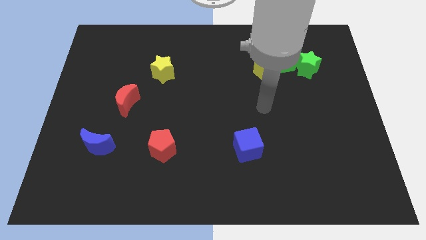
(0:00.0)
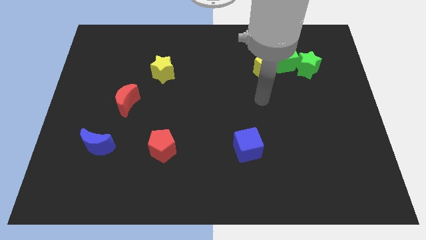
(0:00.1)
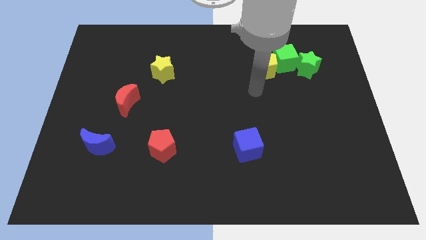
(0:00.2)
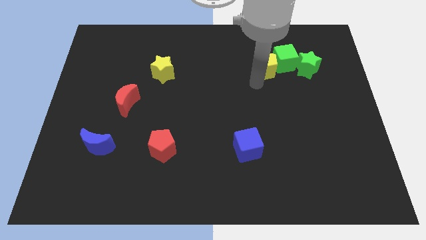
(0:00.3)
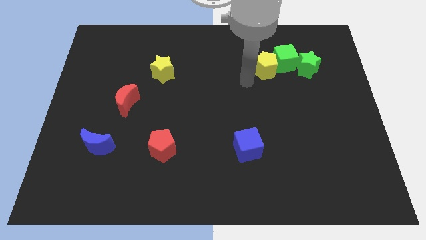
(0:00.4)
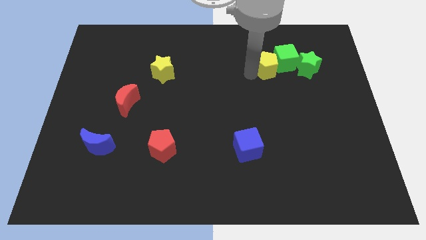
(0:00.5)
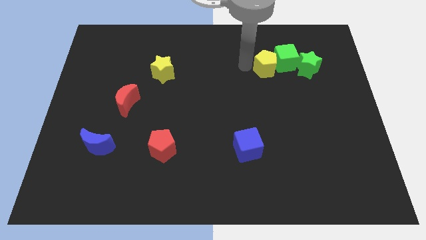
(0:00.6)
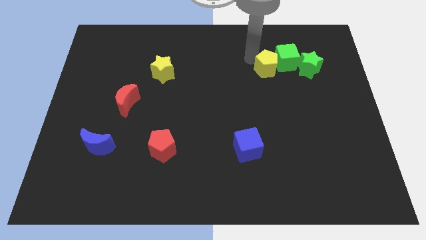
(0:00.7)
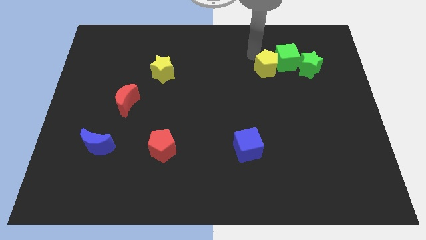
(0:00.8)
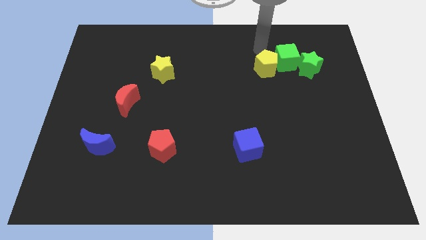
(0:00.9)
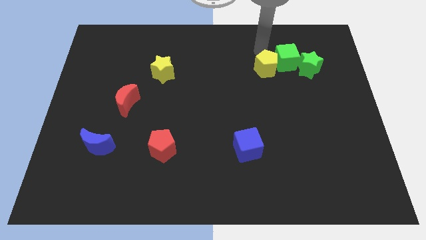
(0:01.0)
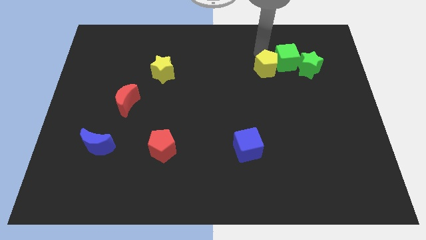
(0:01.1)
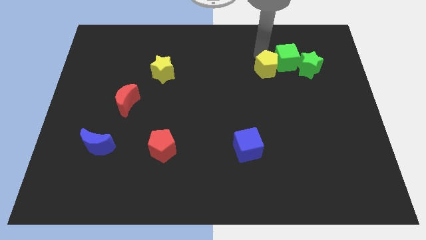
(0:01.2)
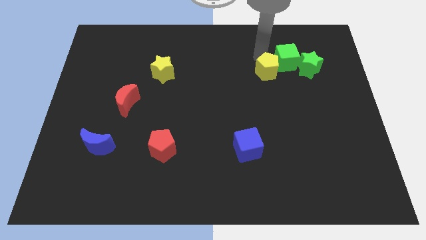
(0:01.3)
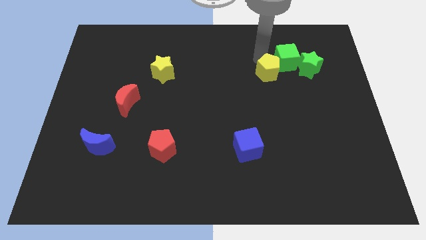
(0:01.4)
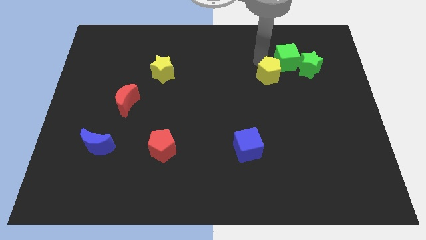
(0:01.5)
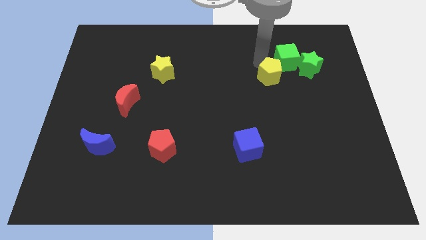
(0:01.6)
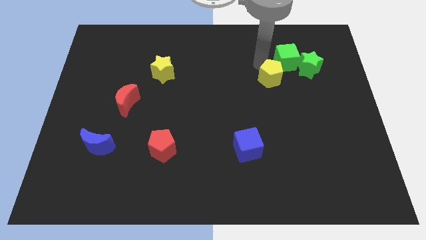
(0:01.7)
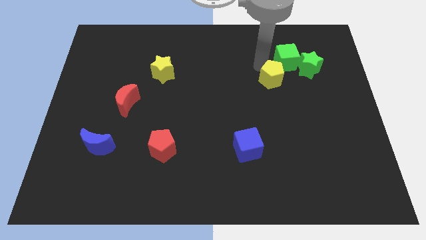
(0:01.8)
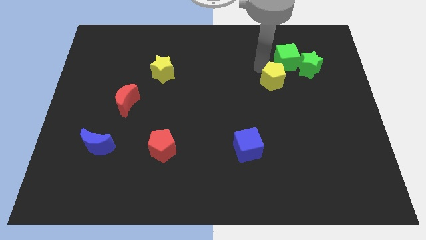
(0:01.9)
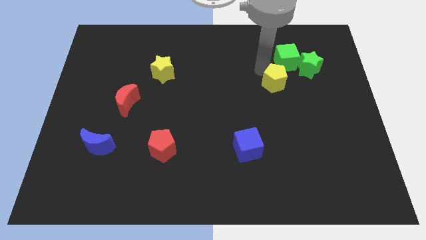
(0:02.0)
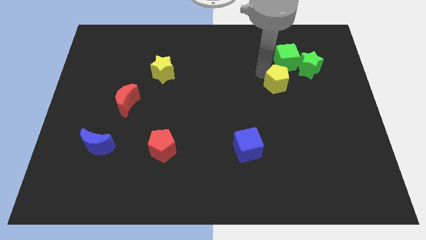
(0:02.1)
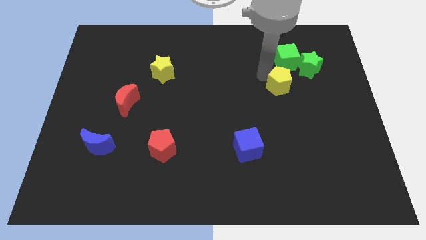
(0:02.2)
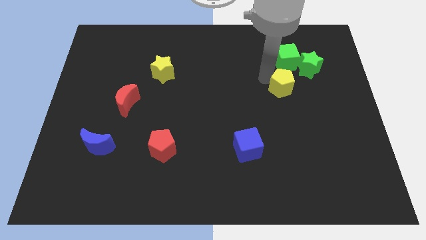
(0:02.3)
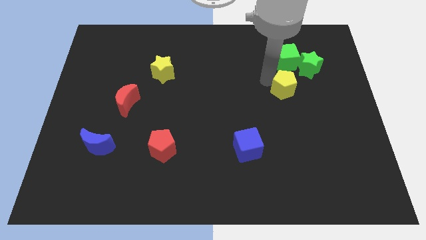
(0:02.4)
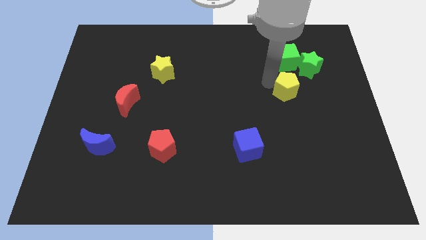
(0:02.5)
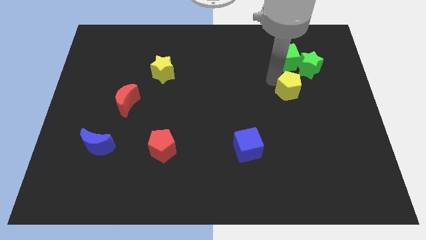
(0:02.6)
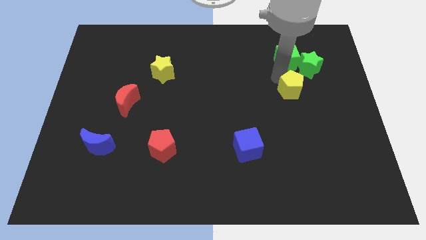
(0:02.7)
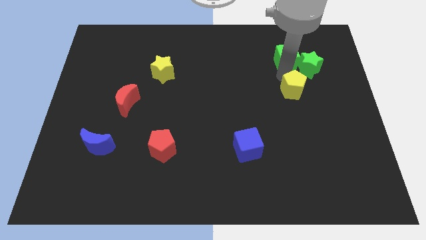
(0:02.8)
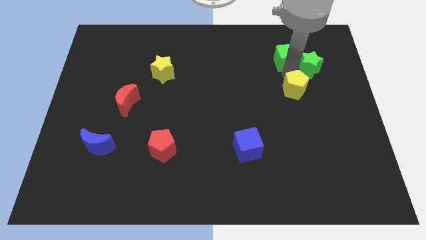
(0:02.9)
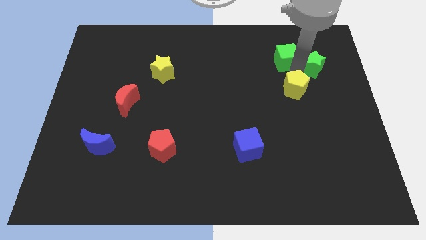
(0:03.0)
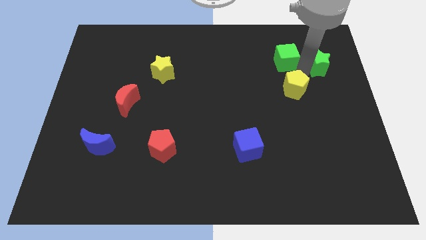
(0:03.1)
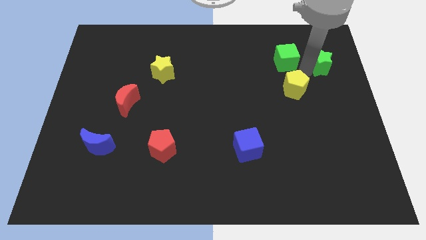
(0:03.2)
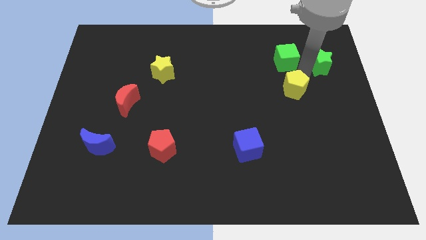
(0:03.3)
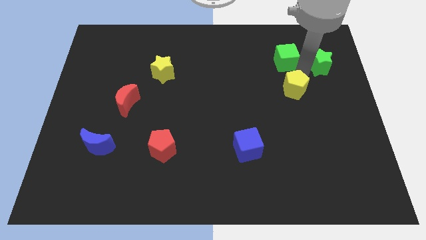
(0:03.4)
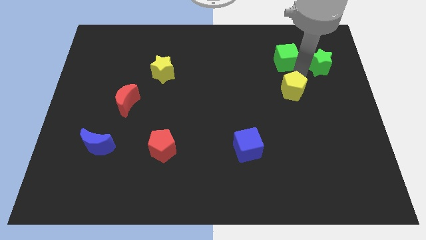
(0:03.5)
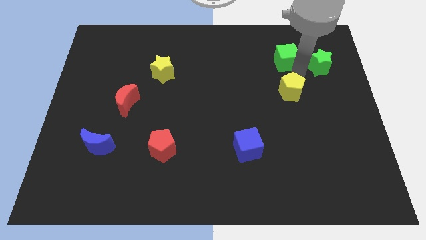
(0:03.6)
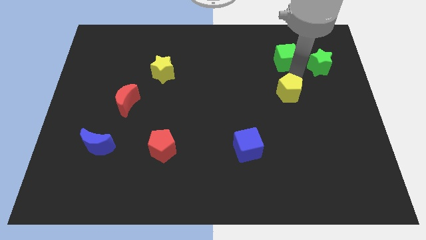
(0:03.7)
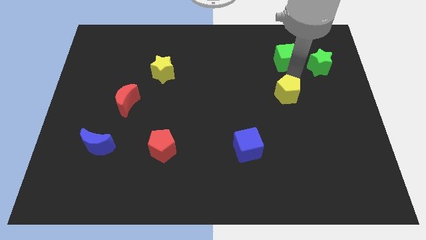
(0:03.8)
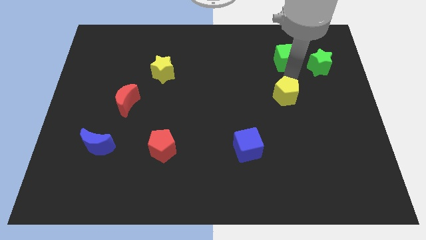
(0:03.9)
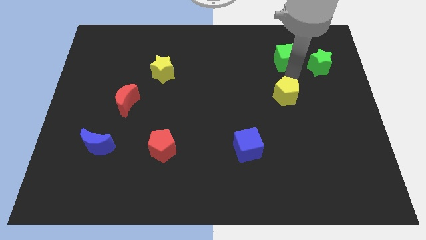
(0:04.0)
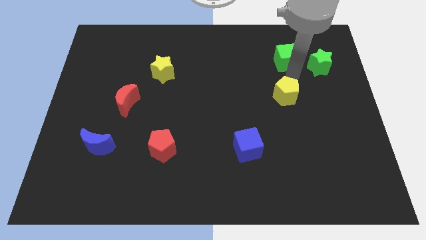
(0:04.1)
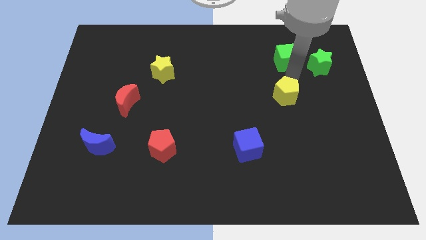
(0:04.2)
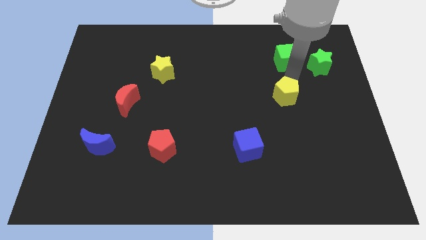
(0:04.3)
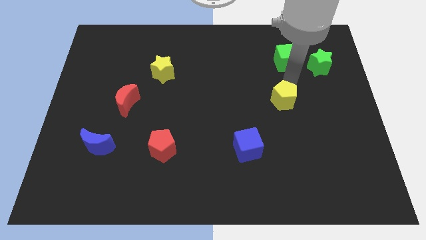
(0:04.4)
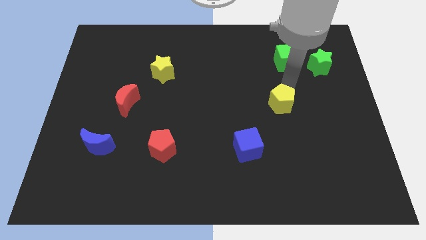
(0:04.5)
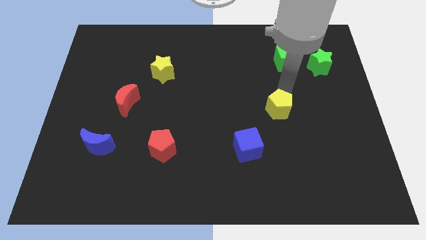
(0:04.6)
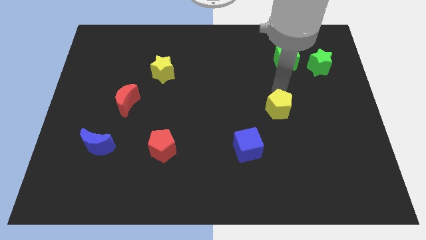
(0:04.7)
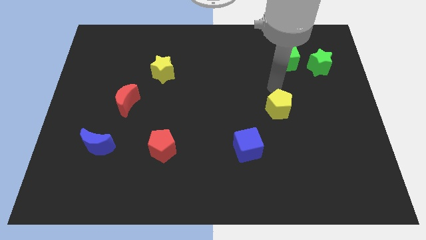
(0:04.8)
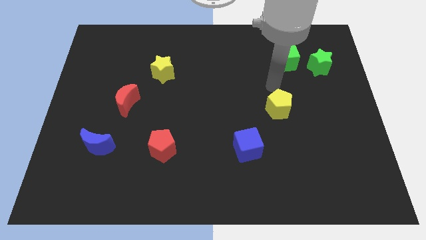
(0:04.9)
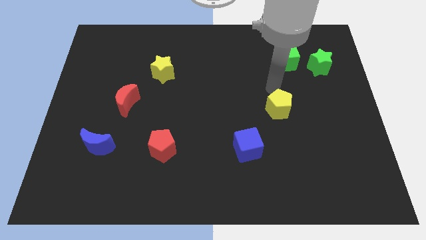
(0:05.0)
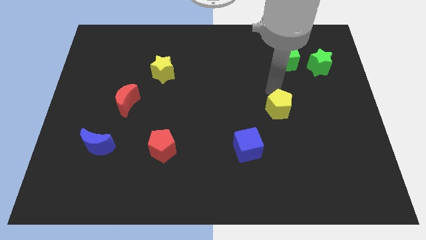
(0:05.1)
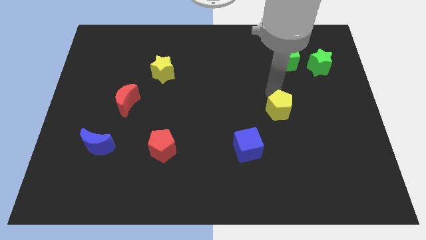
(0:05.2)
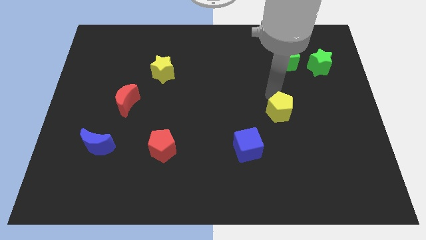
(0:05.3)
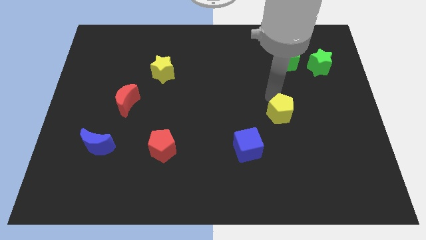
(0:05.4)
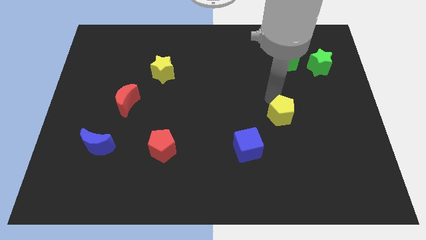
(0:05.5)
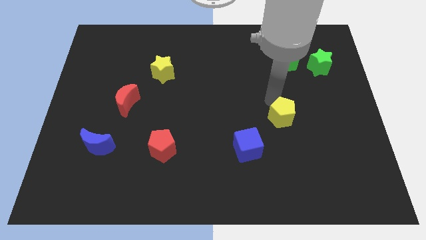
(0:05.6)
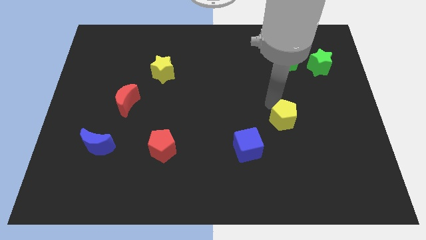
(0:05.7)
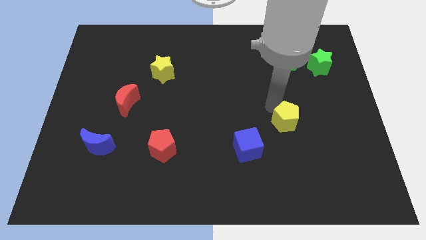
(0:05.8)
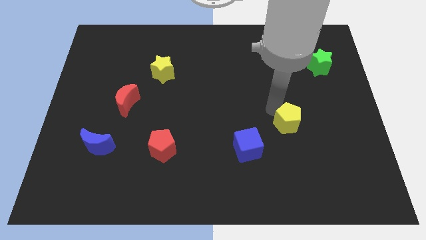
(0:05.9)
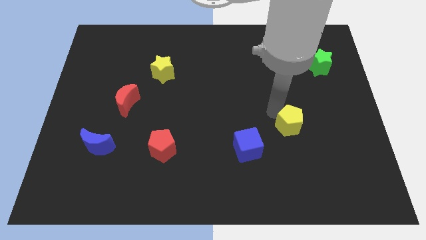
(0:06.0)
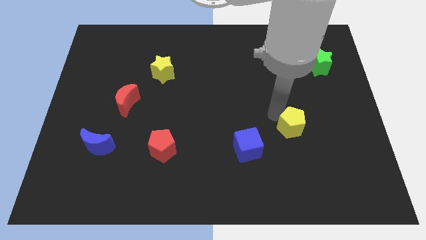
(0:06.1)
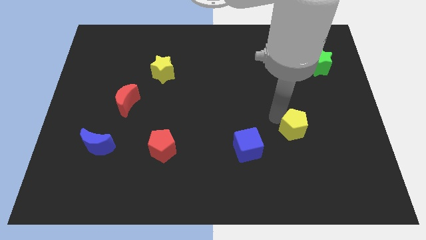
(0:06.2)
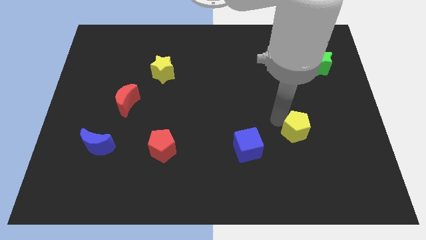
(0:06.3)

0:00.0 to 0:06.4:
slide the yellow pentagon to the right side of the blue cube

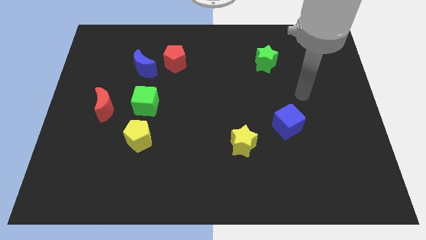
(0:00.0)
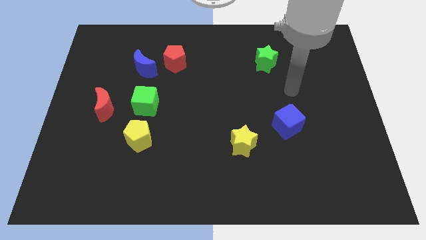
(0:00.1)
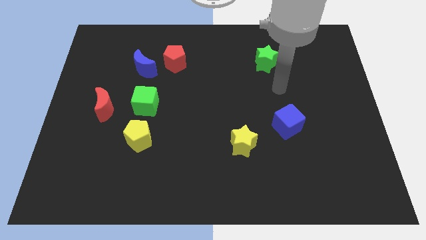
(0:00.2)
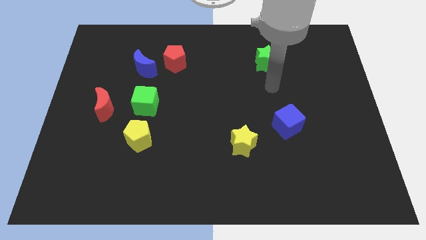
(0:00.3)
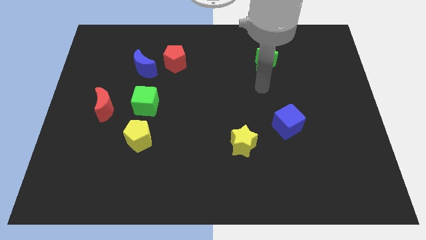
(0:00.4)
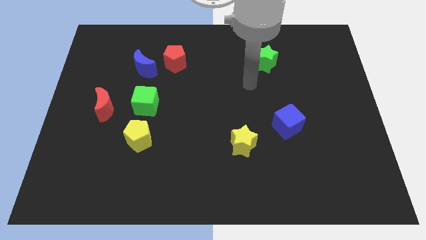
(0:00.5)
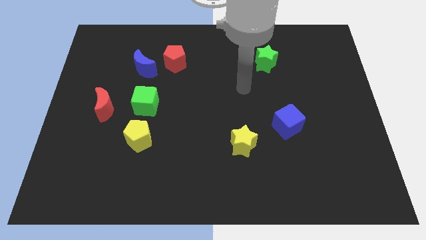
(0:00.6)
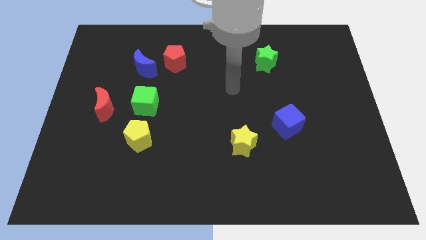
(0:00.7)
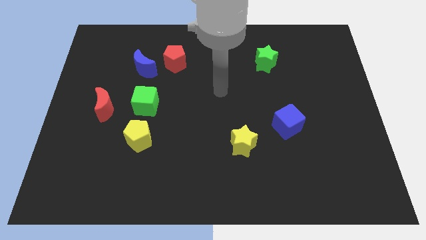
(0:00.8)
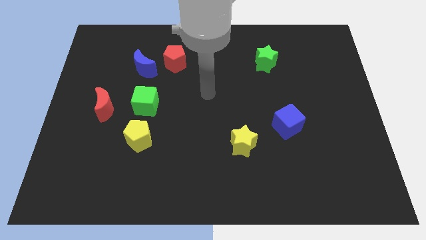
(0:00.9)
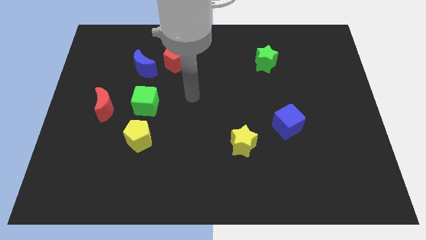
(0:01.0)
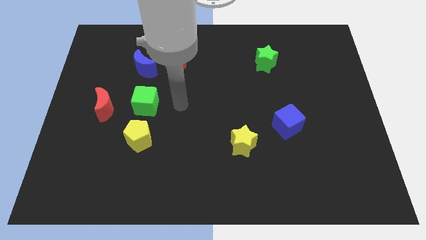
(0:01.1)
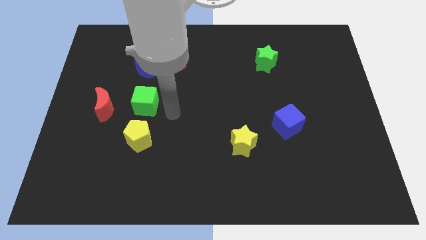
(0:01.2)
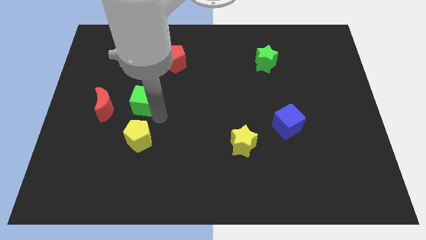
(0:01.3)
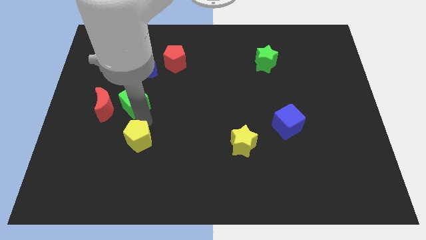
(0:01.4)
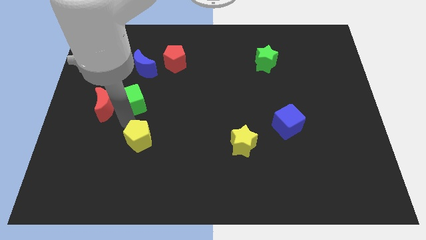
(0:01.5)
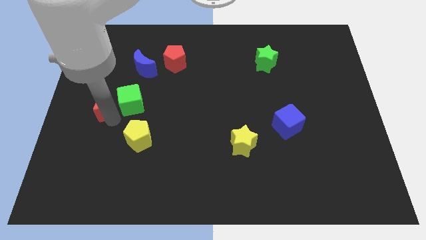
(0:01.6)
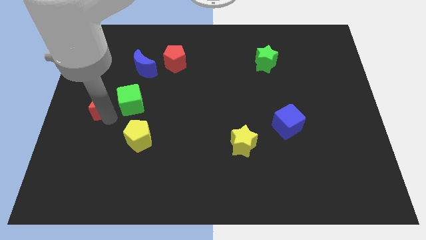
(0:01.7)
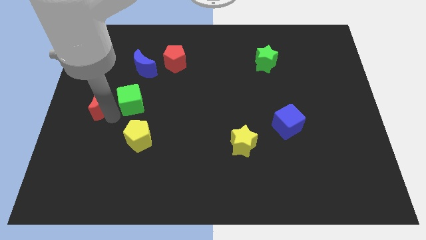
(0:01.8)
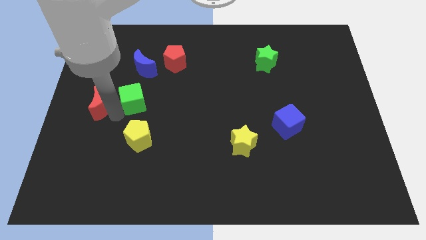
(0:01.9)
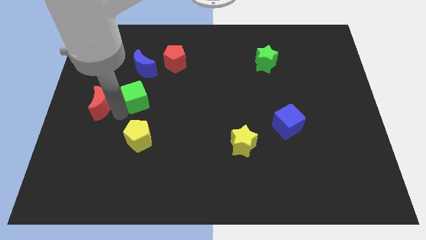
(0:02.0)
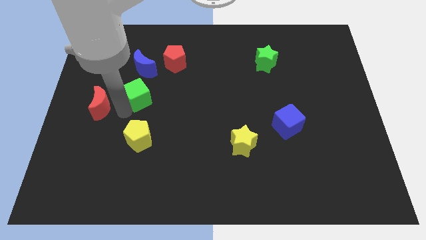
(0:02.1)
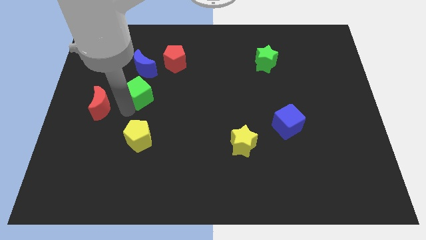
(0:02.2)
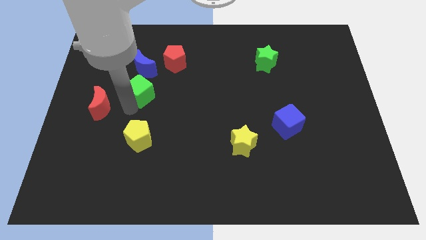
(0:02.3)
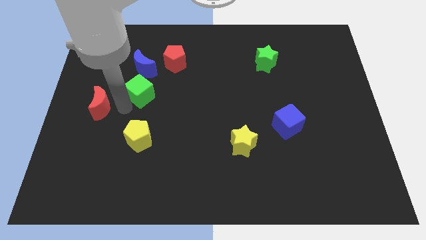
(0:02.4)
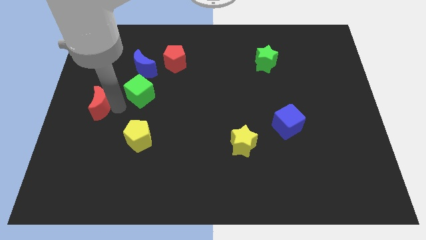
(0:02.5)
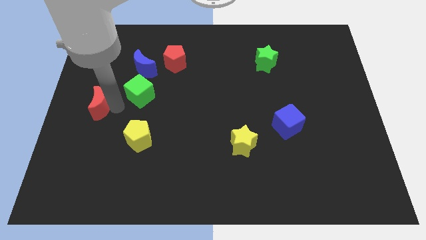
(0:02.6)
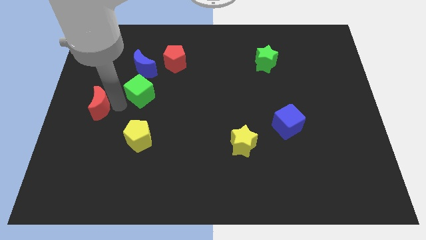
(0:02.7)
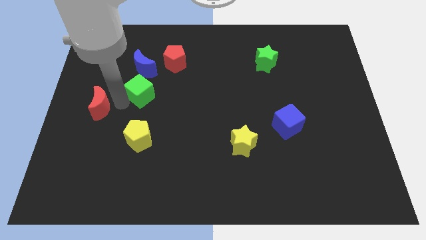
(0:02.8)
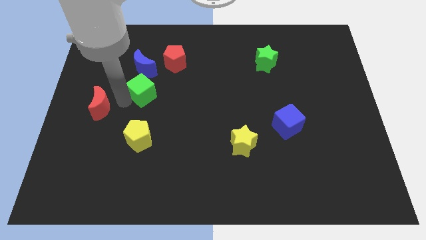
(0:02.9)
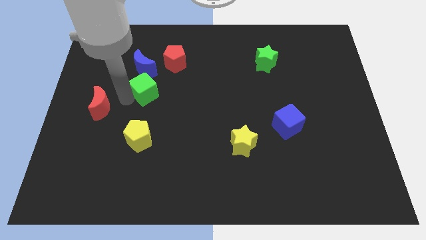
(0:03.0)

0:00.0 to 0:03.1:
move the green cube to the bottom right side of the blue moon
